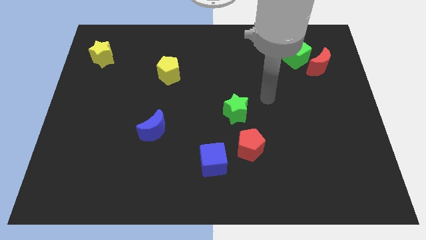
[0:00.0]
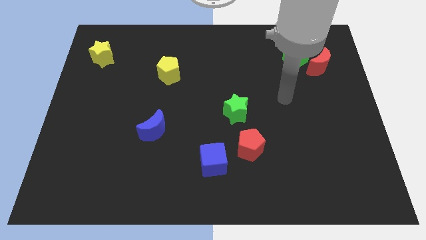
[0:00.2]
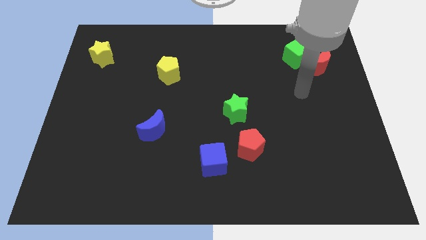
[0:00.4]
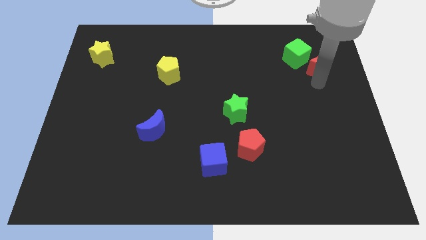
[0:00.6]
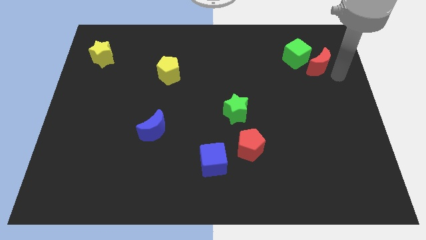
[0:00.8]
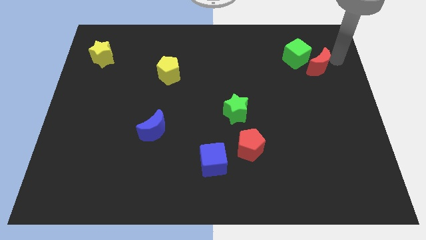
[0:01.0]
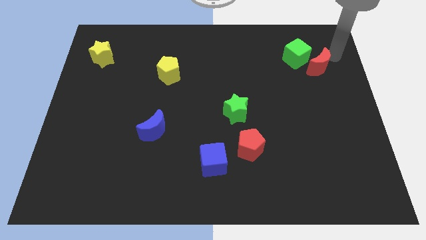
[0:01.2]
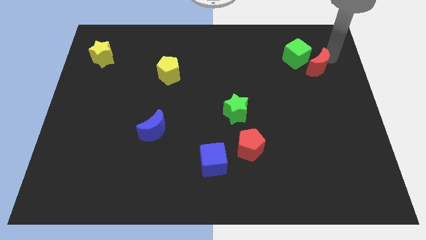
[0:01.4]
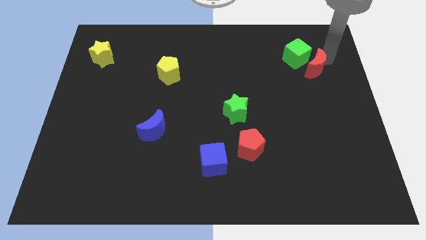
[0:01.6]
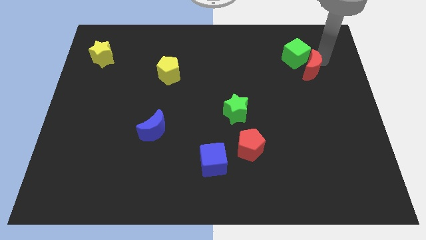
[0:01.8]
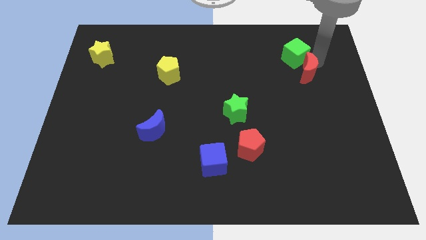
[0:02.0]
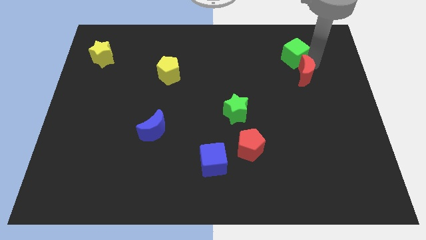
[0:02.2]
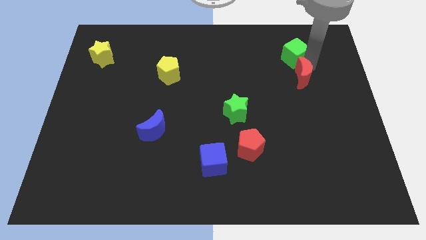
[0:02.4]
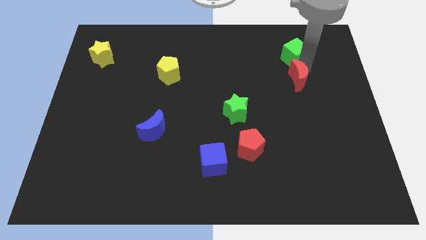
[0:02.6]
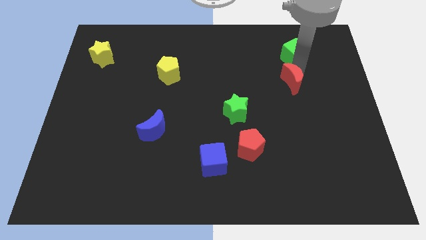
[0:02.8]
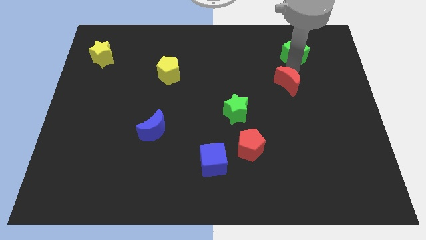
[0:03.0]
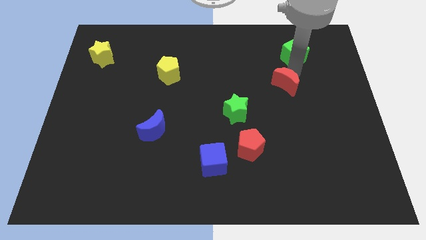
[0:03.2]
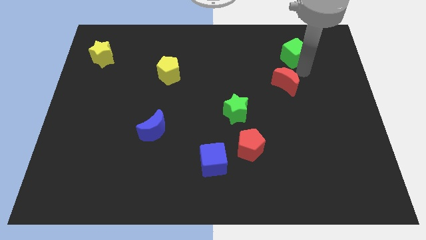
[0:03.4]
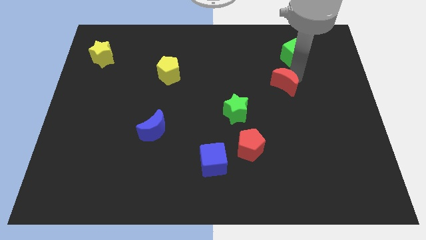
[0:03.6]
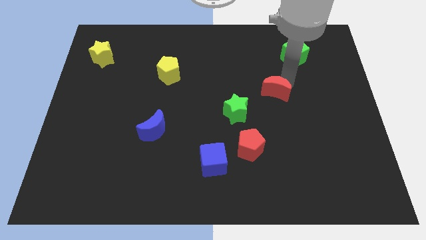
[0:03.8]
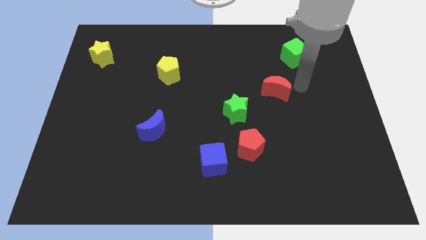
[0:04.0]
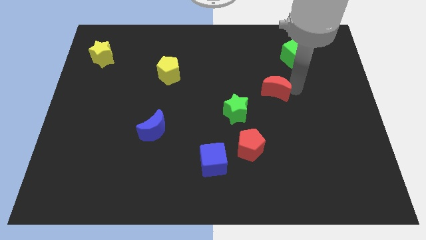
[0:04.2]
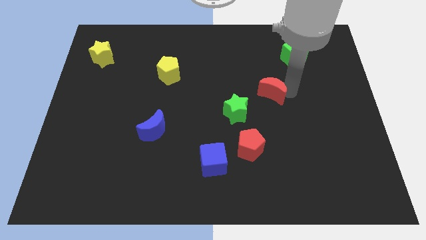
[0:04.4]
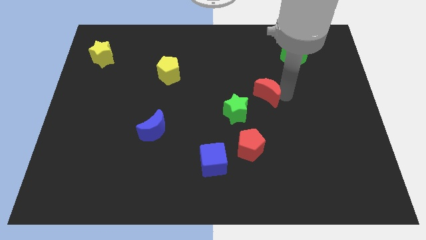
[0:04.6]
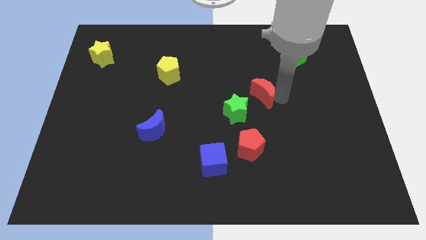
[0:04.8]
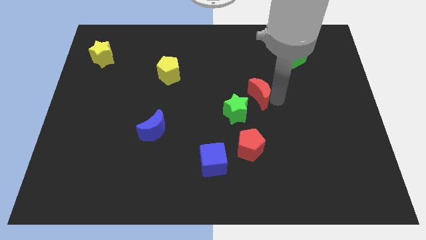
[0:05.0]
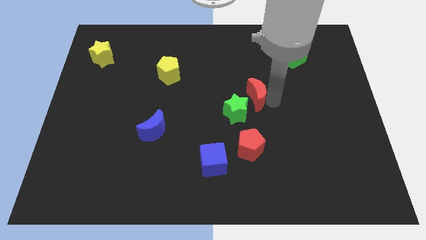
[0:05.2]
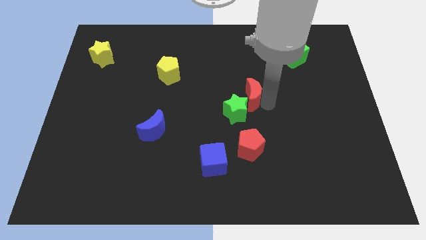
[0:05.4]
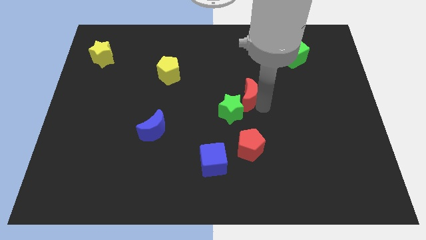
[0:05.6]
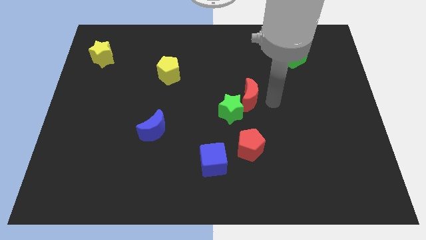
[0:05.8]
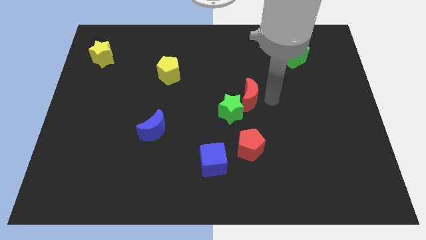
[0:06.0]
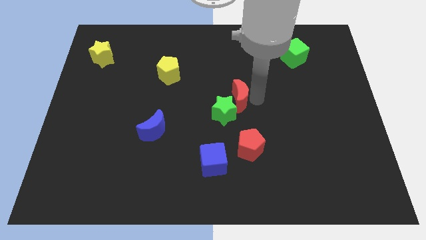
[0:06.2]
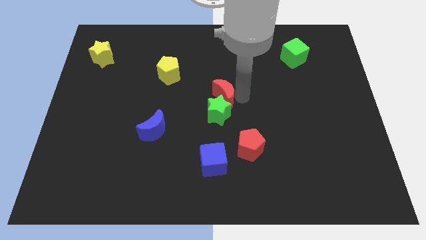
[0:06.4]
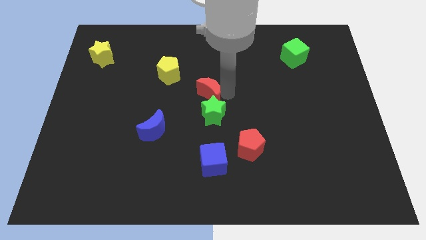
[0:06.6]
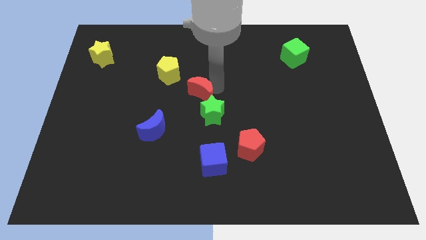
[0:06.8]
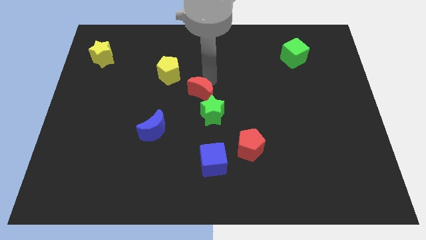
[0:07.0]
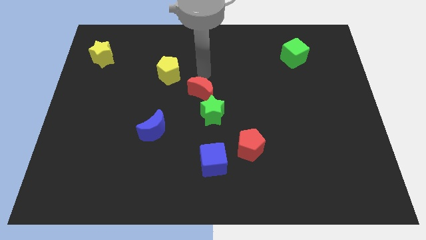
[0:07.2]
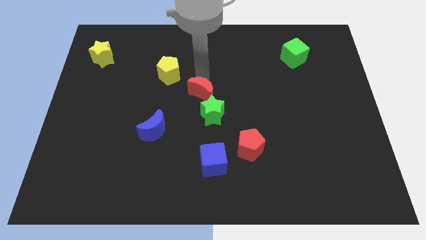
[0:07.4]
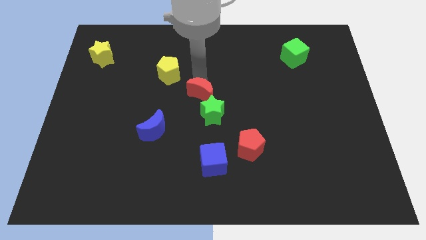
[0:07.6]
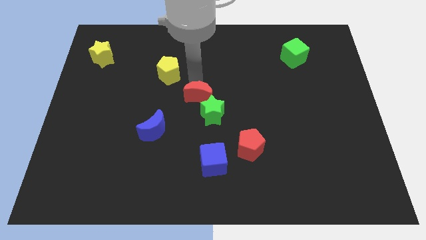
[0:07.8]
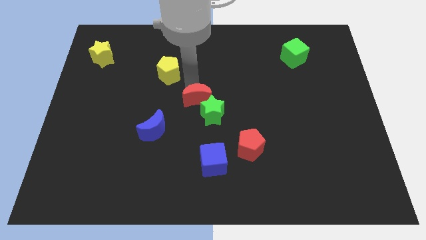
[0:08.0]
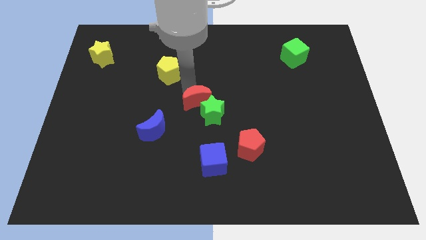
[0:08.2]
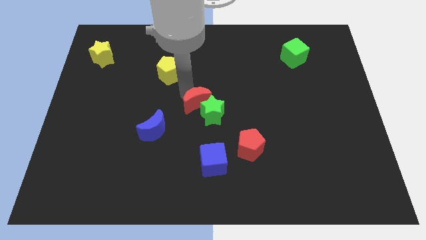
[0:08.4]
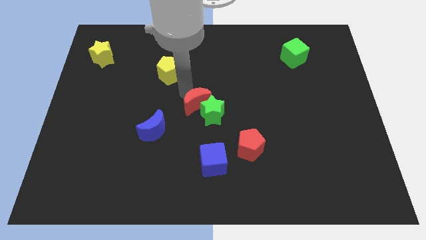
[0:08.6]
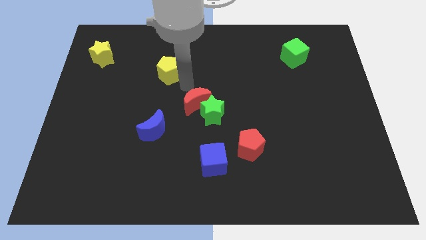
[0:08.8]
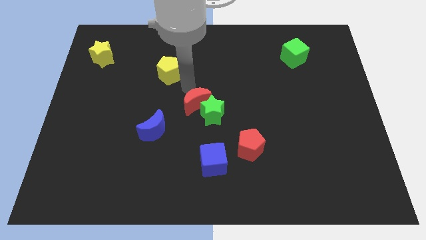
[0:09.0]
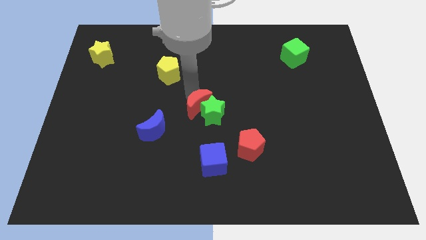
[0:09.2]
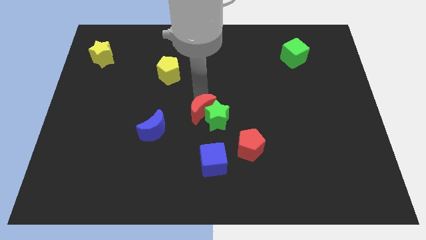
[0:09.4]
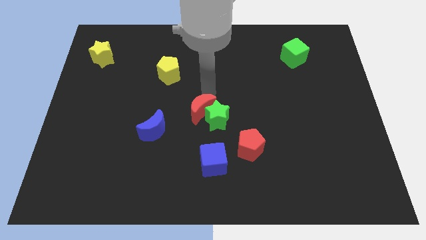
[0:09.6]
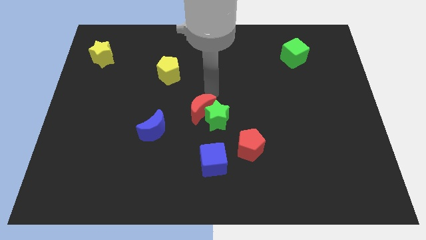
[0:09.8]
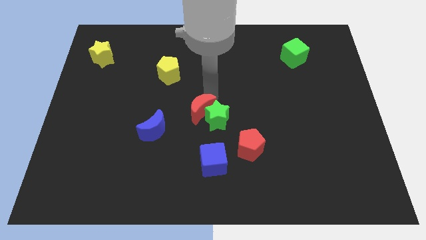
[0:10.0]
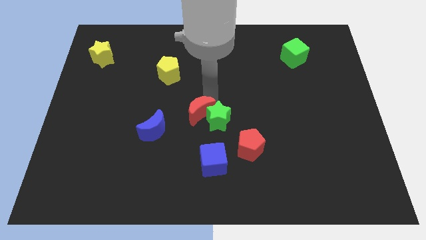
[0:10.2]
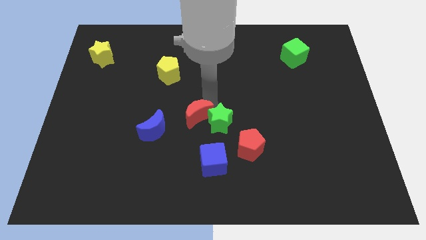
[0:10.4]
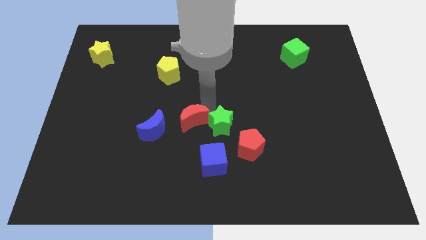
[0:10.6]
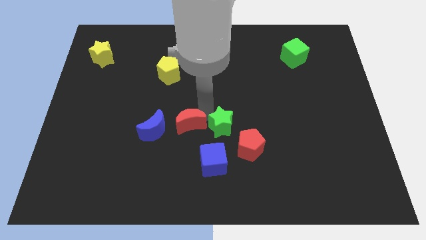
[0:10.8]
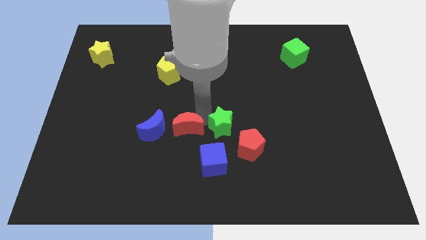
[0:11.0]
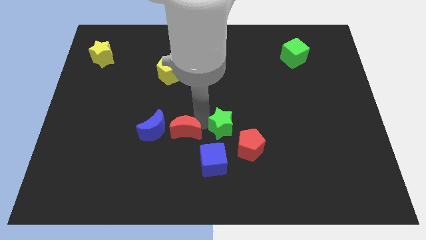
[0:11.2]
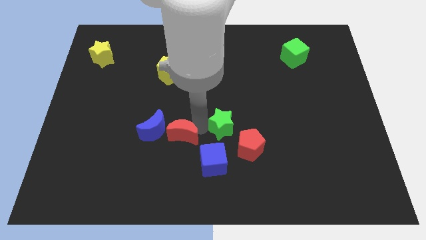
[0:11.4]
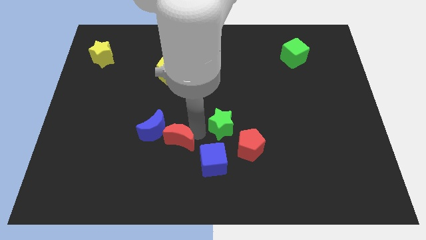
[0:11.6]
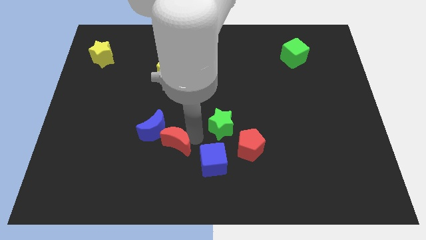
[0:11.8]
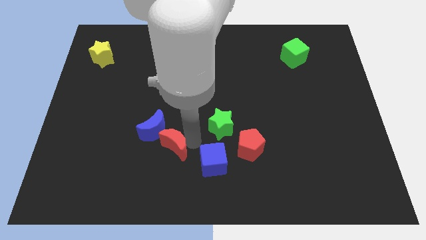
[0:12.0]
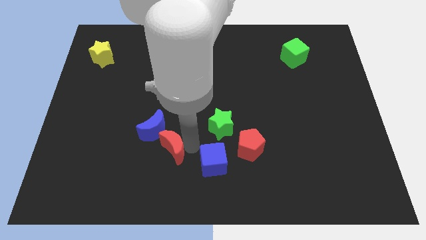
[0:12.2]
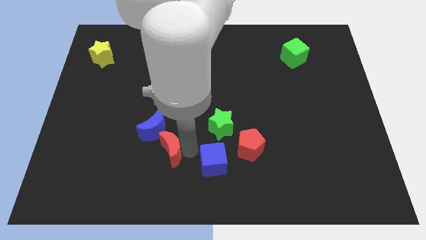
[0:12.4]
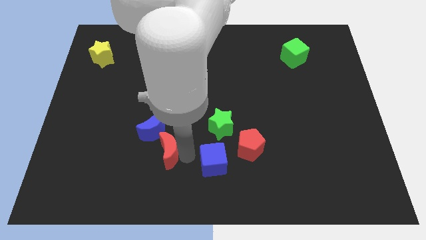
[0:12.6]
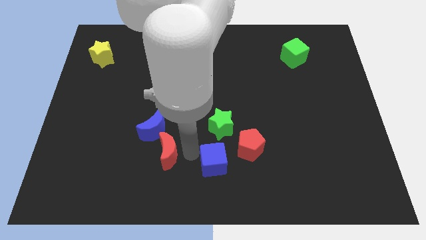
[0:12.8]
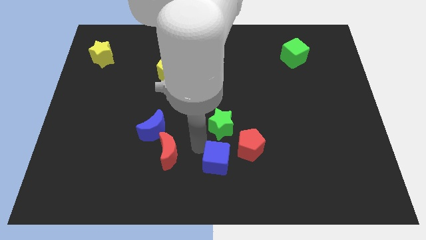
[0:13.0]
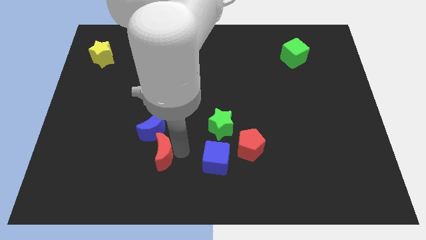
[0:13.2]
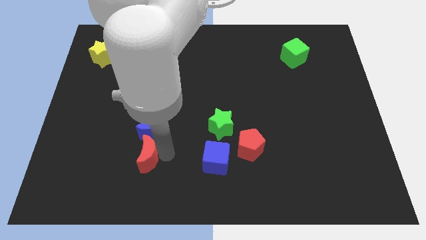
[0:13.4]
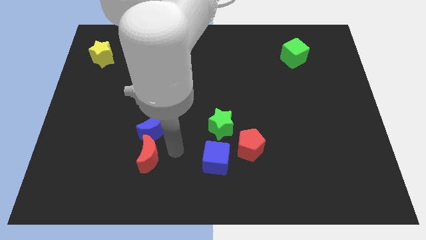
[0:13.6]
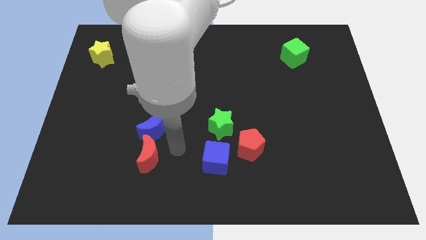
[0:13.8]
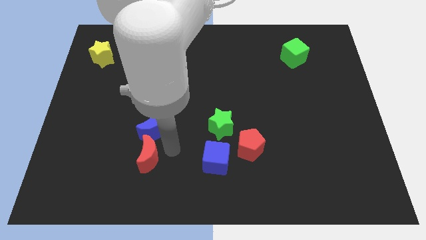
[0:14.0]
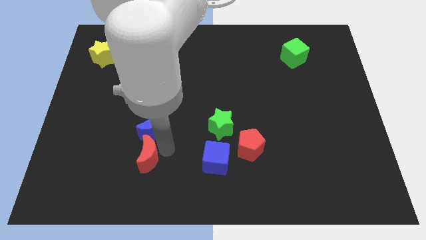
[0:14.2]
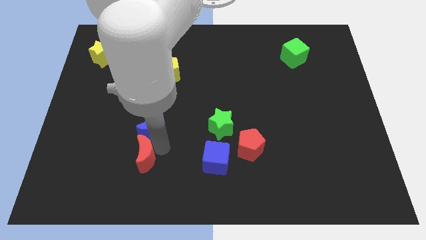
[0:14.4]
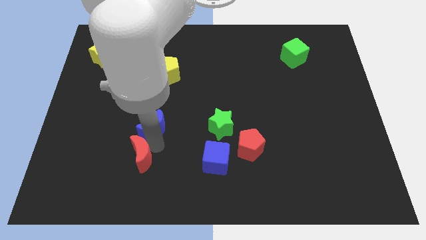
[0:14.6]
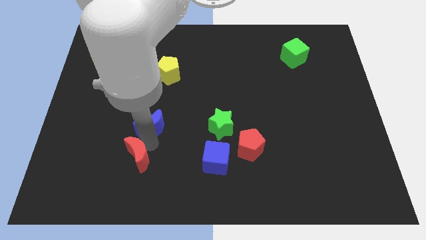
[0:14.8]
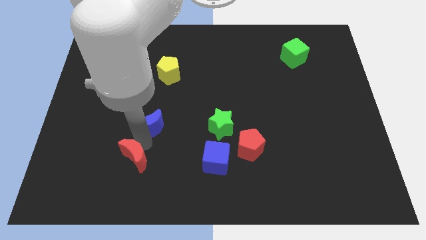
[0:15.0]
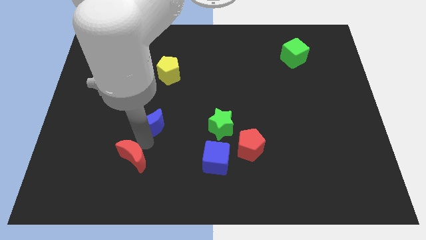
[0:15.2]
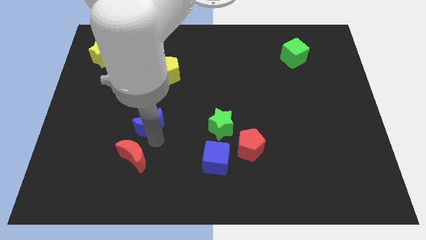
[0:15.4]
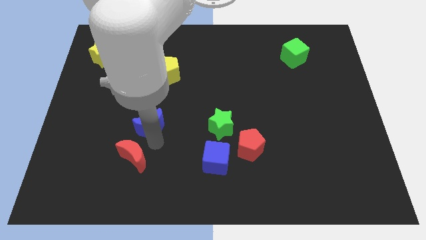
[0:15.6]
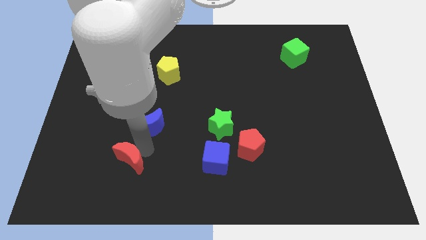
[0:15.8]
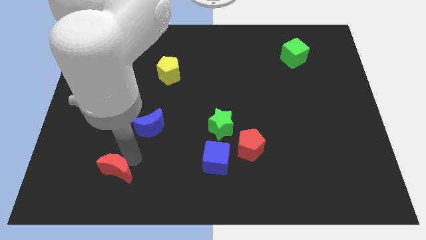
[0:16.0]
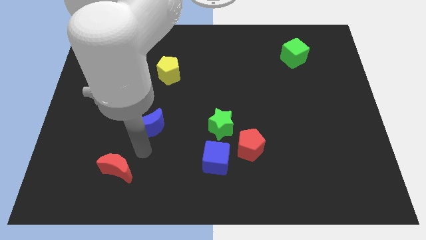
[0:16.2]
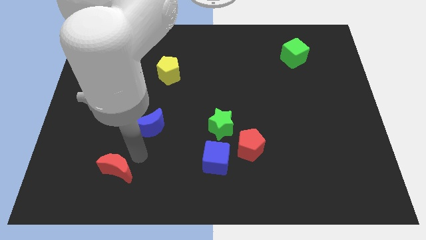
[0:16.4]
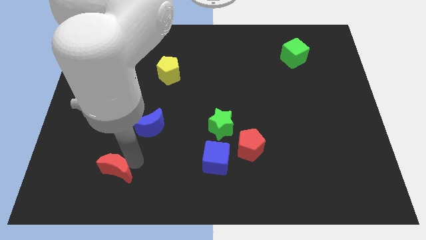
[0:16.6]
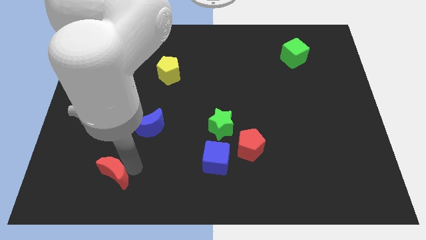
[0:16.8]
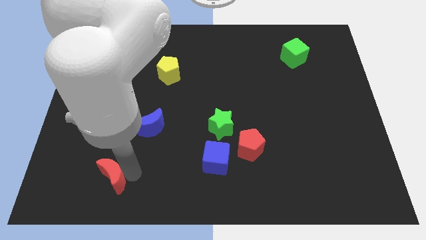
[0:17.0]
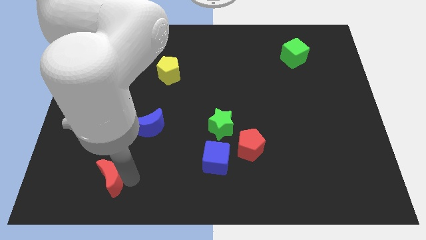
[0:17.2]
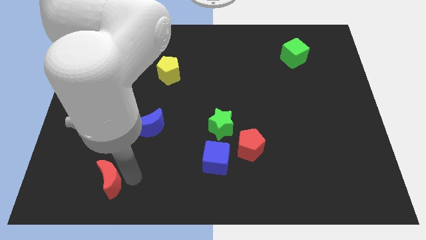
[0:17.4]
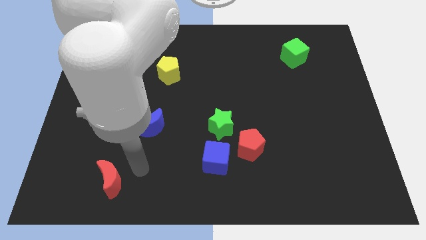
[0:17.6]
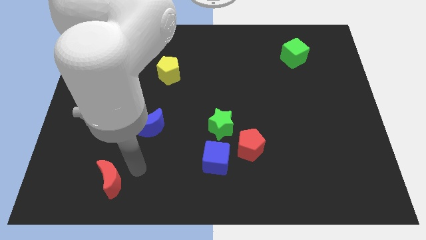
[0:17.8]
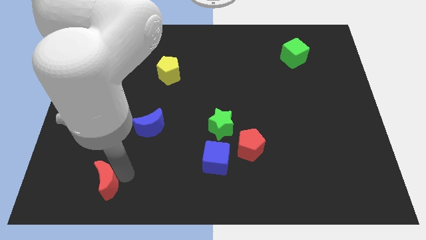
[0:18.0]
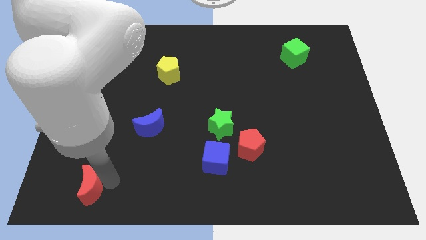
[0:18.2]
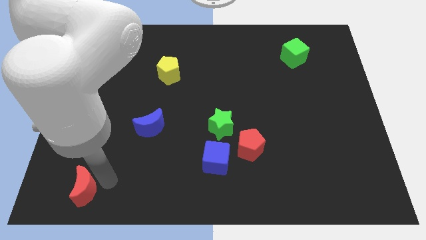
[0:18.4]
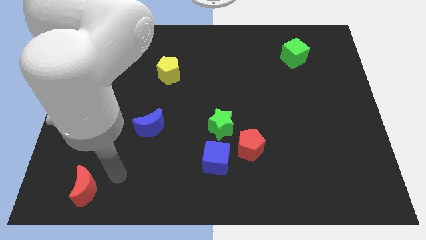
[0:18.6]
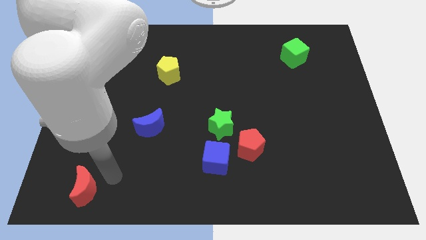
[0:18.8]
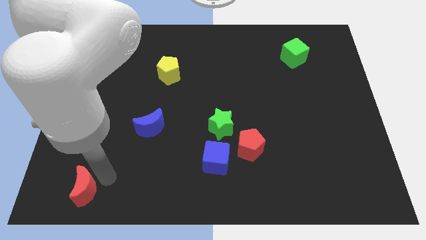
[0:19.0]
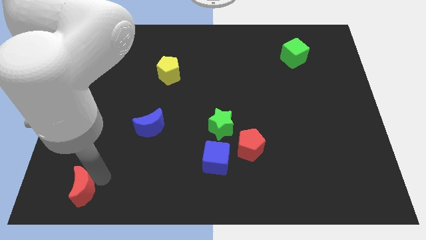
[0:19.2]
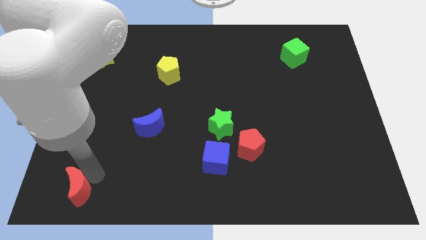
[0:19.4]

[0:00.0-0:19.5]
slide the red moon to the lower left corner
